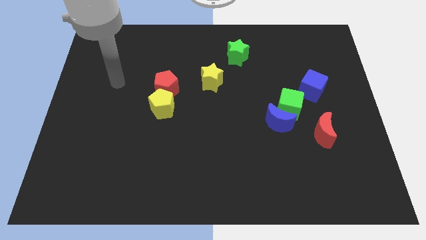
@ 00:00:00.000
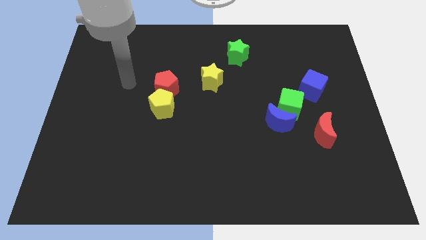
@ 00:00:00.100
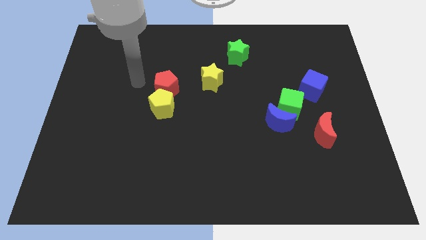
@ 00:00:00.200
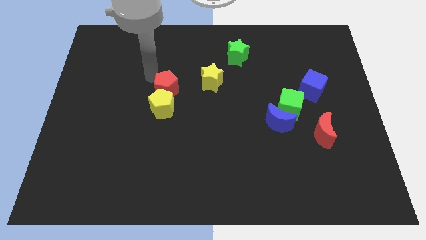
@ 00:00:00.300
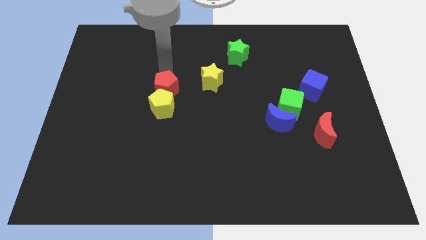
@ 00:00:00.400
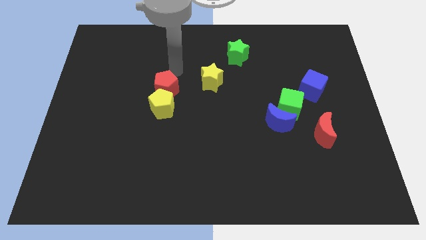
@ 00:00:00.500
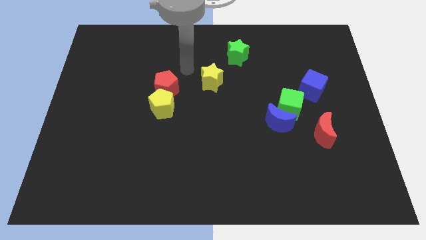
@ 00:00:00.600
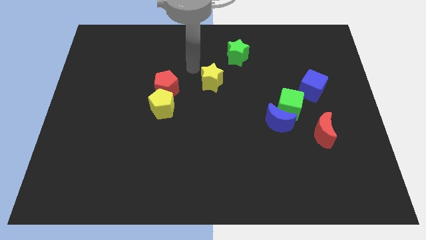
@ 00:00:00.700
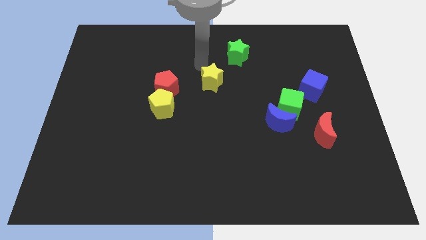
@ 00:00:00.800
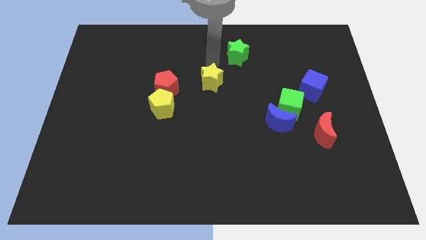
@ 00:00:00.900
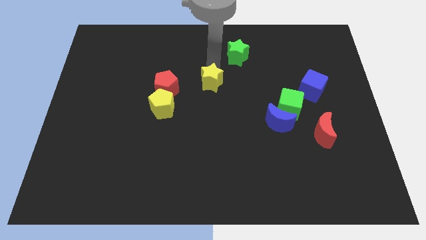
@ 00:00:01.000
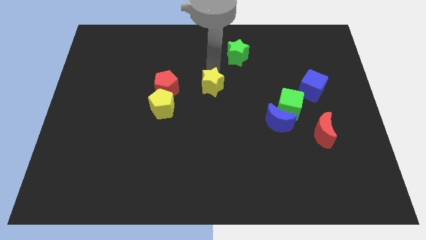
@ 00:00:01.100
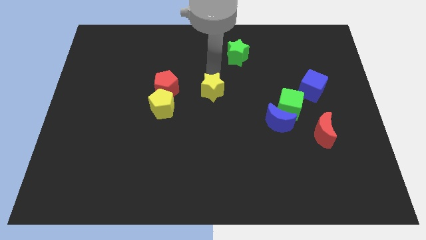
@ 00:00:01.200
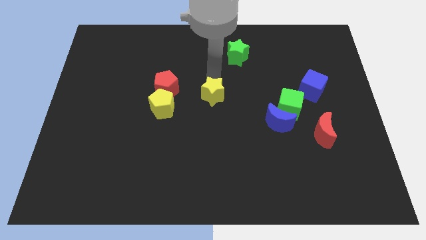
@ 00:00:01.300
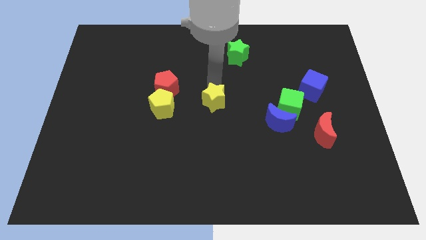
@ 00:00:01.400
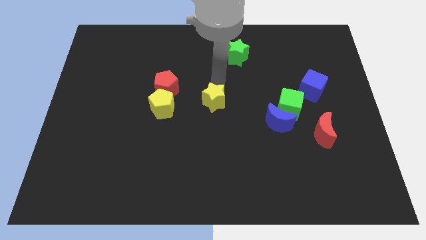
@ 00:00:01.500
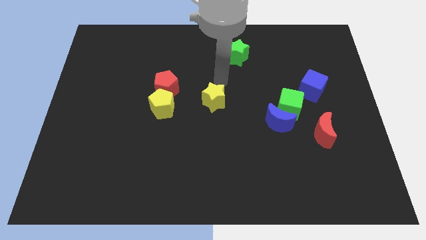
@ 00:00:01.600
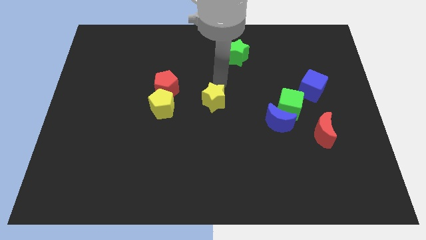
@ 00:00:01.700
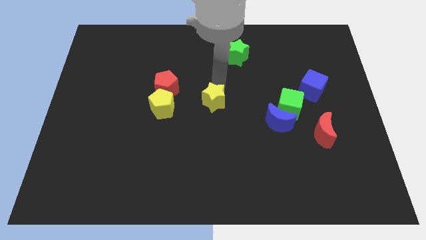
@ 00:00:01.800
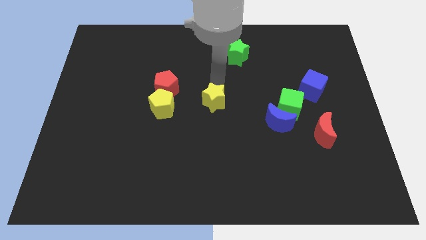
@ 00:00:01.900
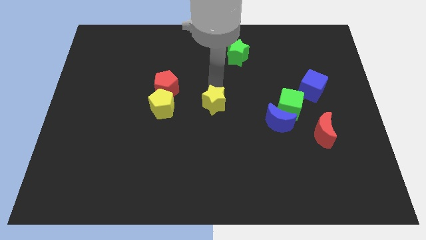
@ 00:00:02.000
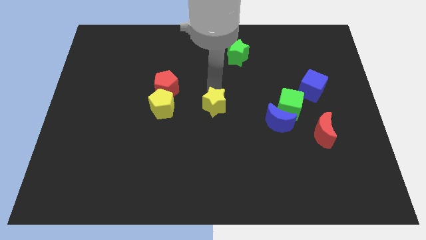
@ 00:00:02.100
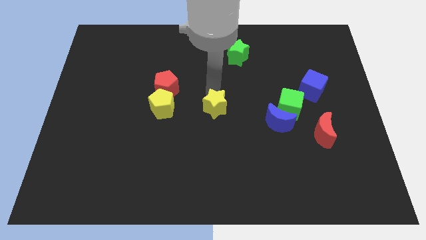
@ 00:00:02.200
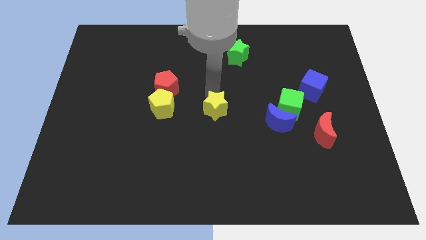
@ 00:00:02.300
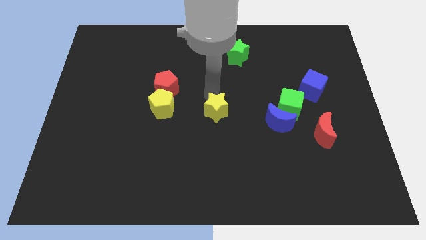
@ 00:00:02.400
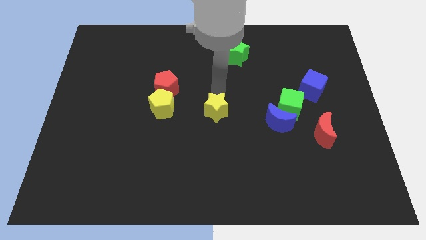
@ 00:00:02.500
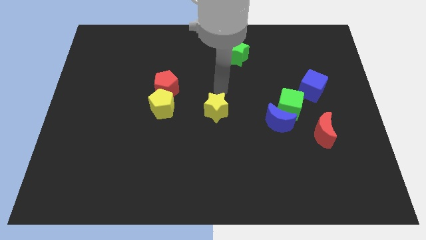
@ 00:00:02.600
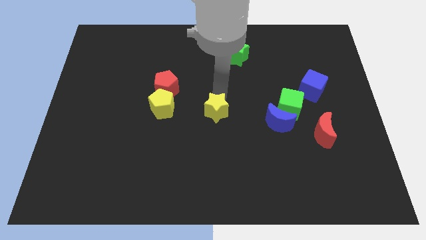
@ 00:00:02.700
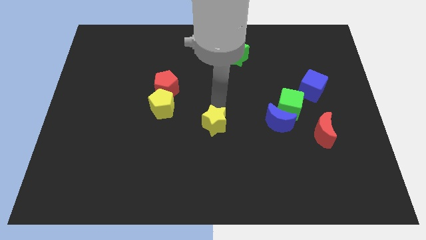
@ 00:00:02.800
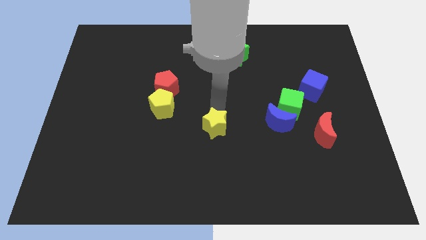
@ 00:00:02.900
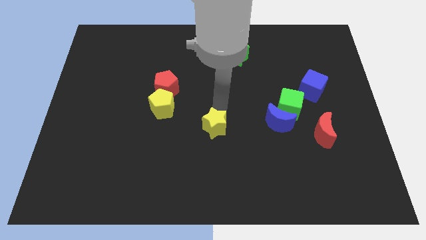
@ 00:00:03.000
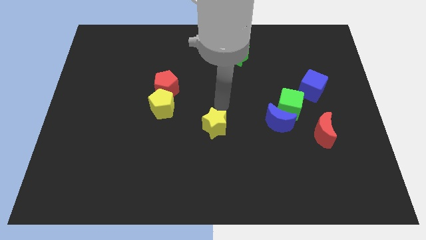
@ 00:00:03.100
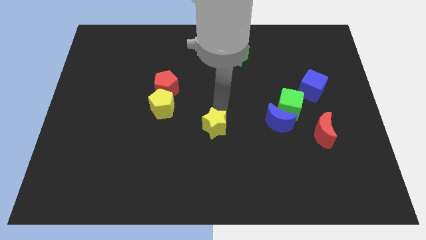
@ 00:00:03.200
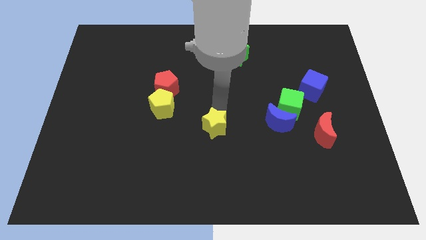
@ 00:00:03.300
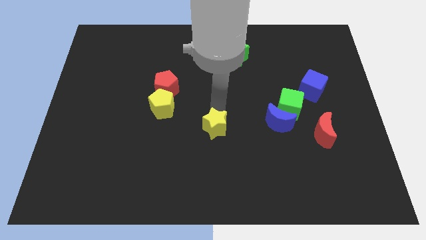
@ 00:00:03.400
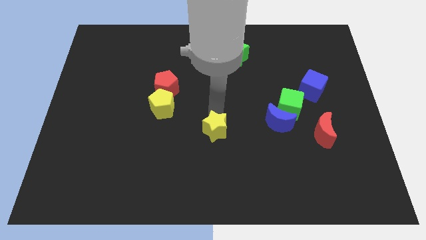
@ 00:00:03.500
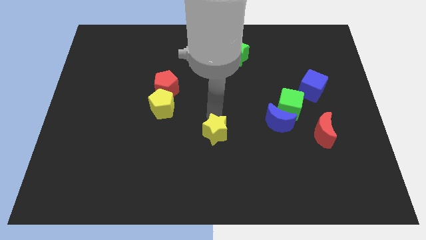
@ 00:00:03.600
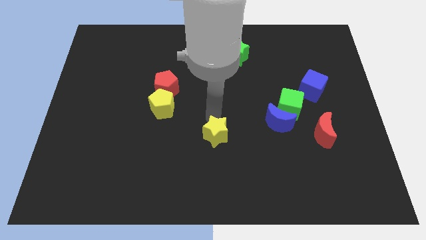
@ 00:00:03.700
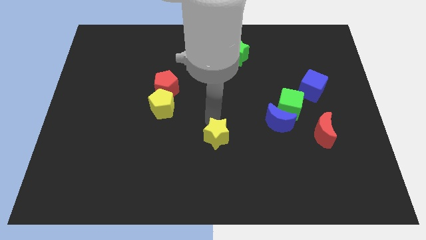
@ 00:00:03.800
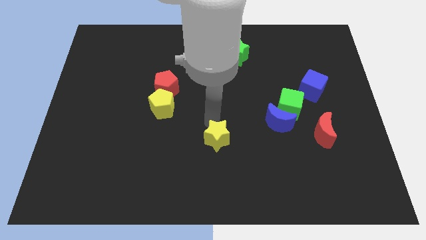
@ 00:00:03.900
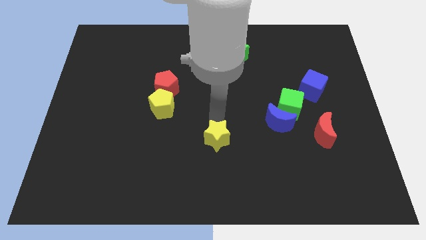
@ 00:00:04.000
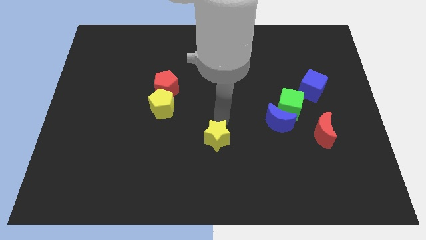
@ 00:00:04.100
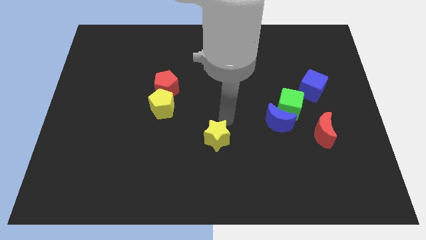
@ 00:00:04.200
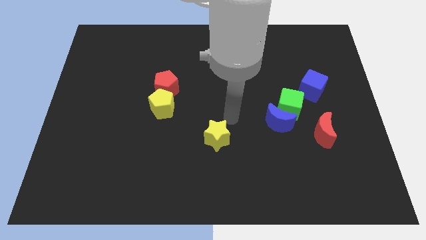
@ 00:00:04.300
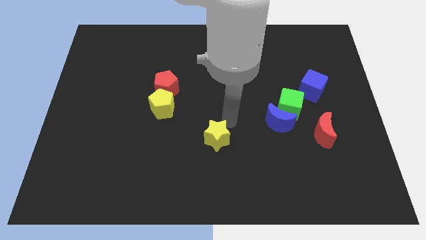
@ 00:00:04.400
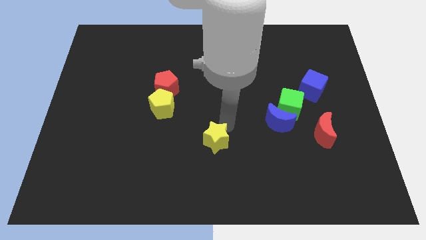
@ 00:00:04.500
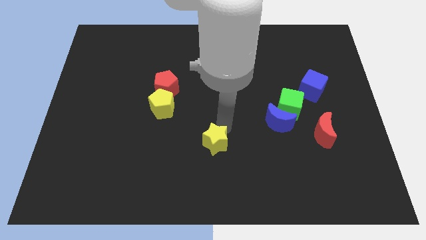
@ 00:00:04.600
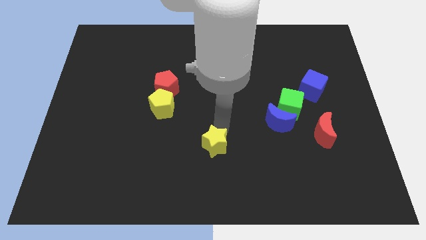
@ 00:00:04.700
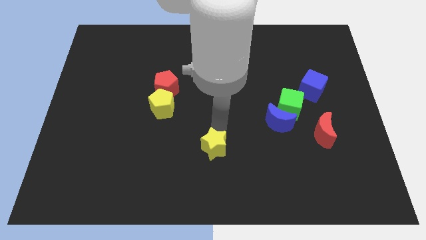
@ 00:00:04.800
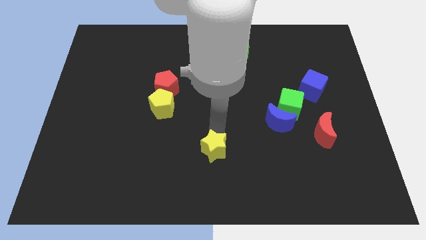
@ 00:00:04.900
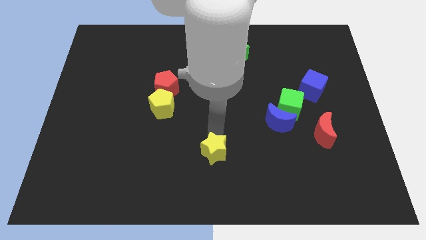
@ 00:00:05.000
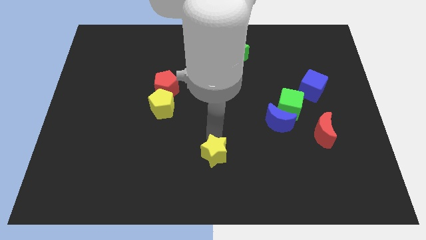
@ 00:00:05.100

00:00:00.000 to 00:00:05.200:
slide the yellow star to the bottom
